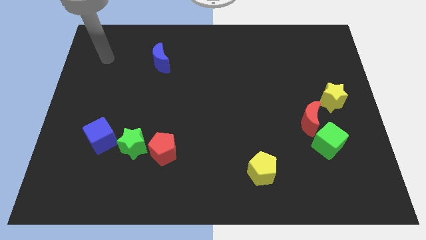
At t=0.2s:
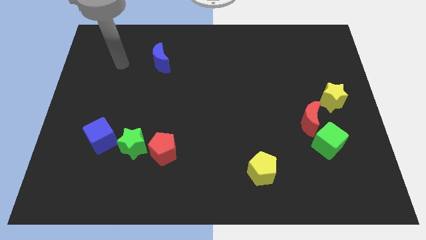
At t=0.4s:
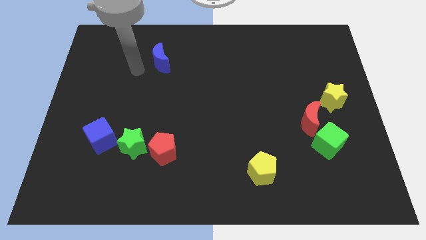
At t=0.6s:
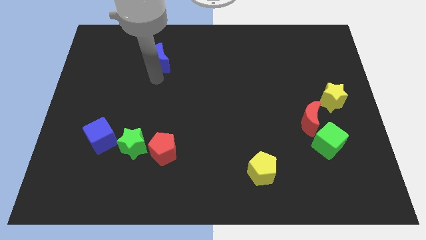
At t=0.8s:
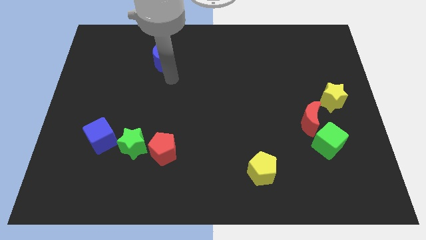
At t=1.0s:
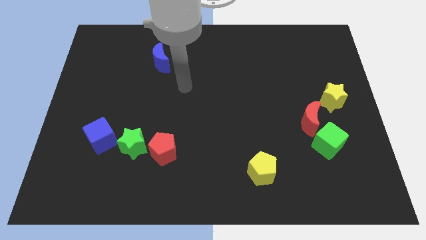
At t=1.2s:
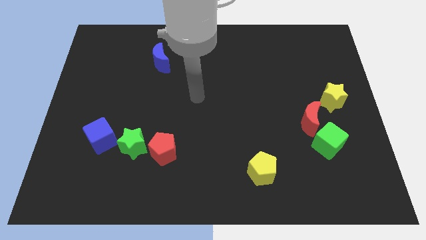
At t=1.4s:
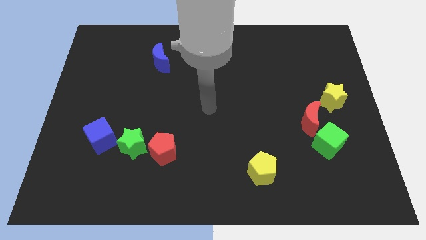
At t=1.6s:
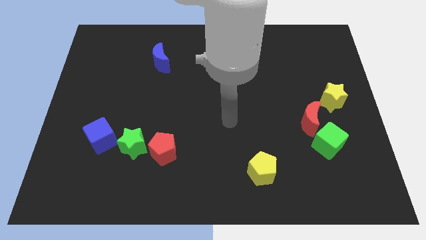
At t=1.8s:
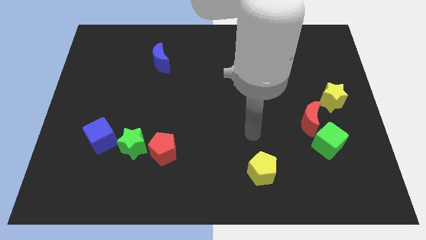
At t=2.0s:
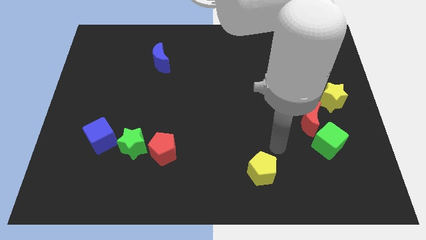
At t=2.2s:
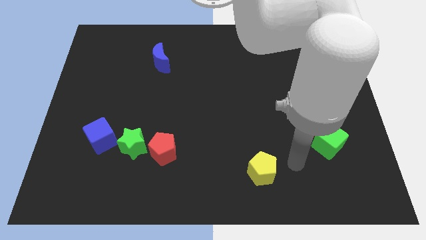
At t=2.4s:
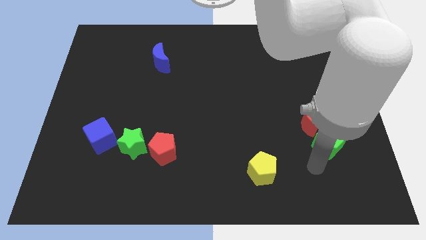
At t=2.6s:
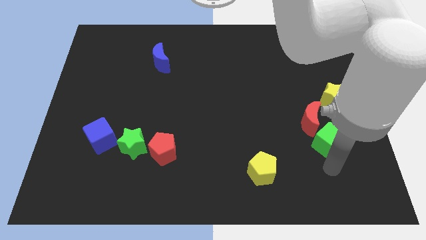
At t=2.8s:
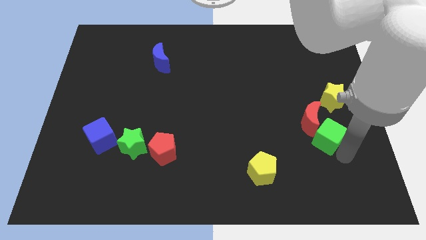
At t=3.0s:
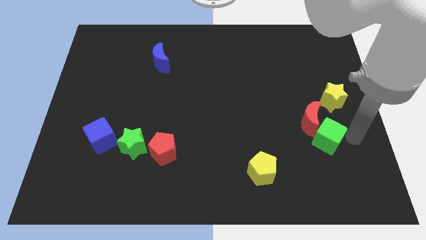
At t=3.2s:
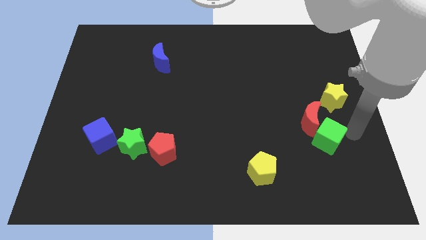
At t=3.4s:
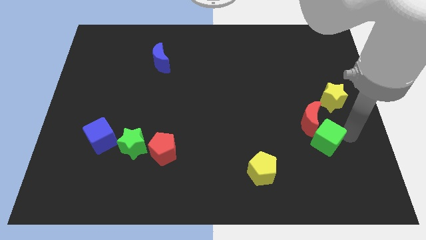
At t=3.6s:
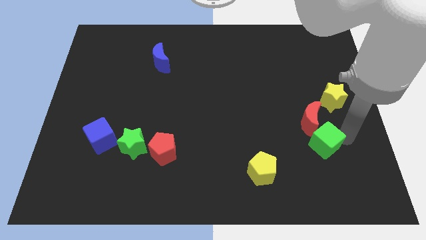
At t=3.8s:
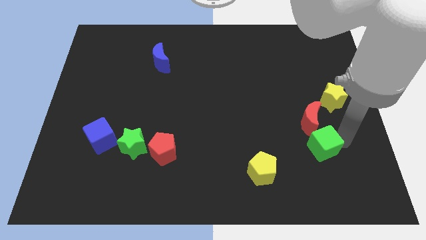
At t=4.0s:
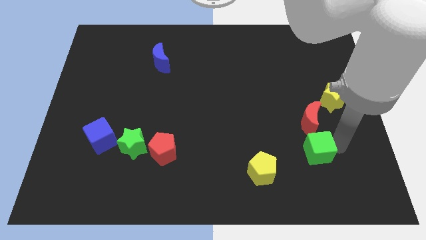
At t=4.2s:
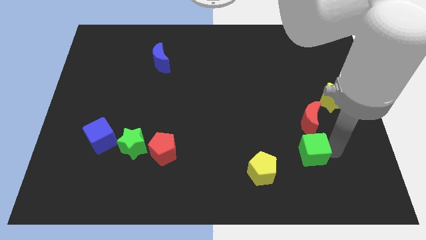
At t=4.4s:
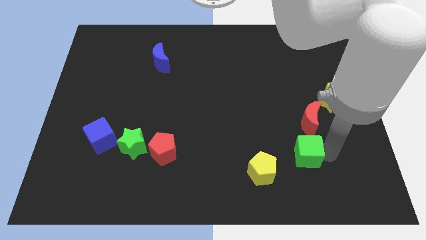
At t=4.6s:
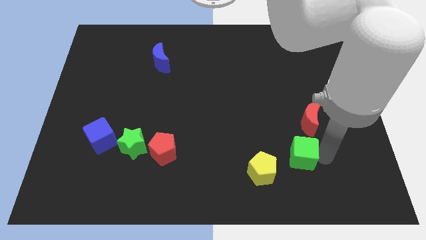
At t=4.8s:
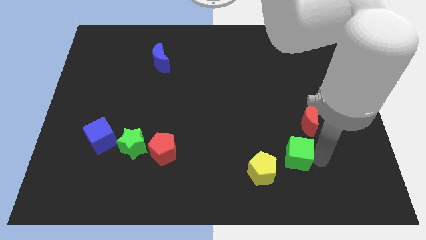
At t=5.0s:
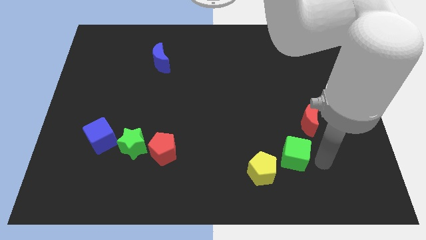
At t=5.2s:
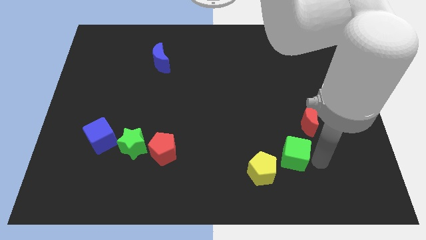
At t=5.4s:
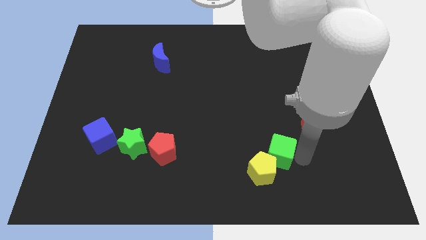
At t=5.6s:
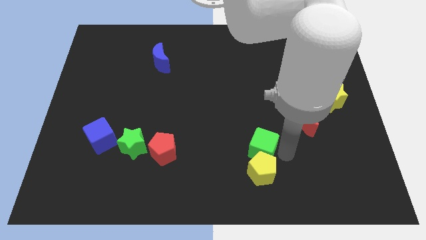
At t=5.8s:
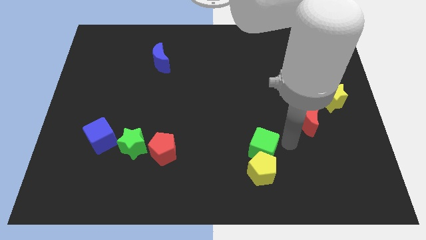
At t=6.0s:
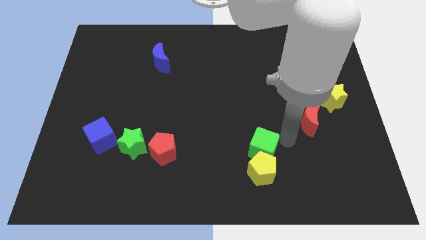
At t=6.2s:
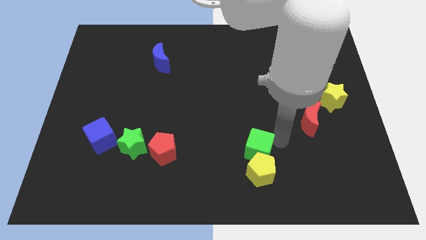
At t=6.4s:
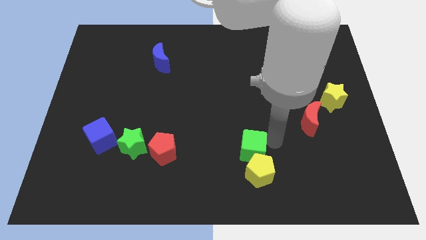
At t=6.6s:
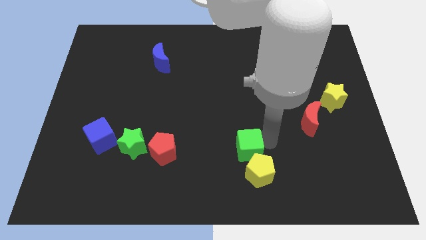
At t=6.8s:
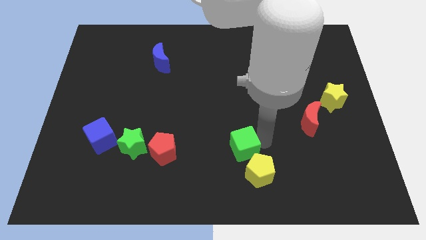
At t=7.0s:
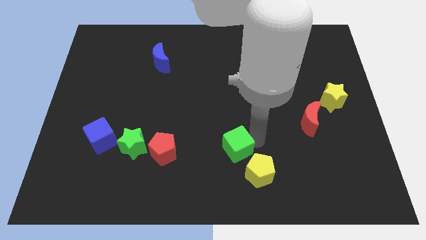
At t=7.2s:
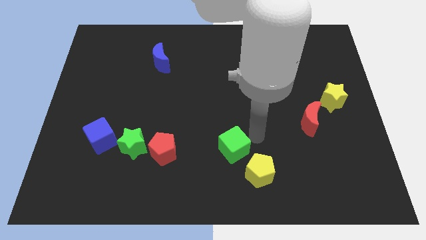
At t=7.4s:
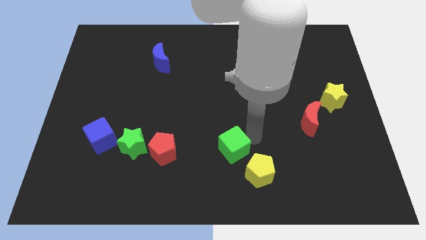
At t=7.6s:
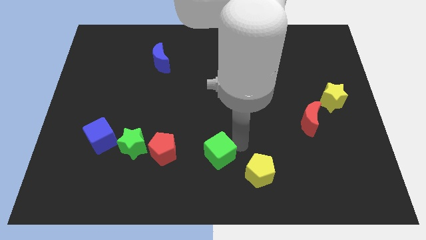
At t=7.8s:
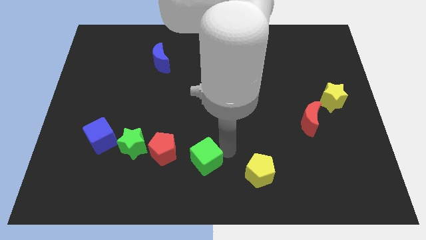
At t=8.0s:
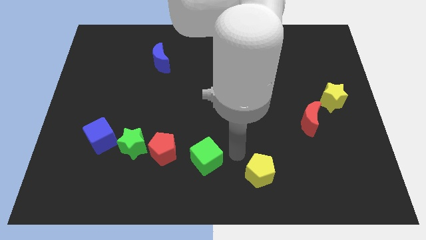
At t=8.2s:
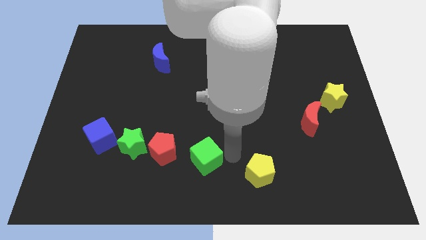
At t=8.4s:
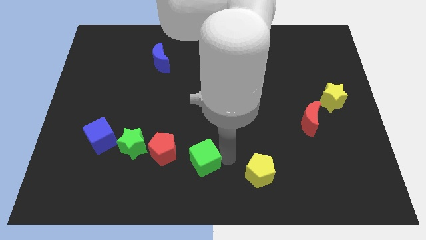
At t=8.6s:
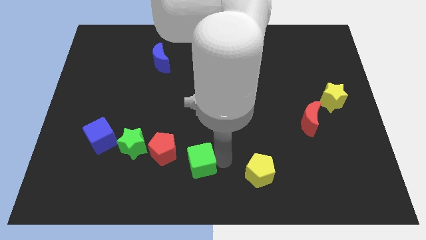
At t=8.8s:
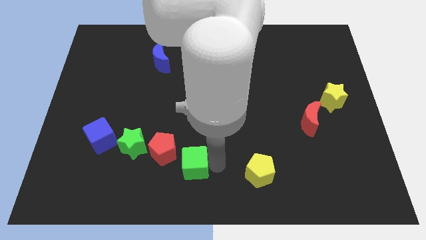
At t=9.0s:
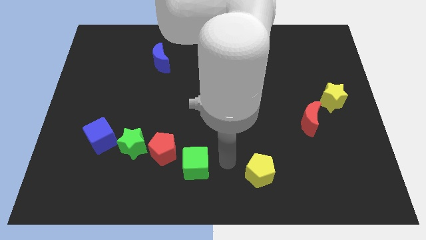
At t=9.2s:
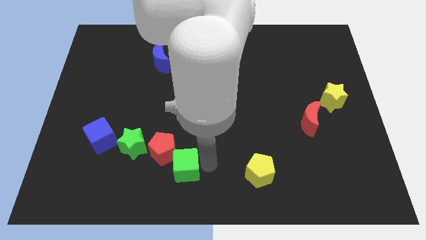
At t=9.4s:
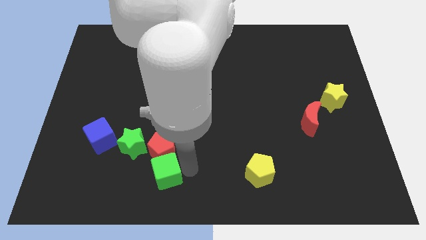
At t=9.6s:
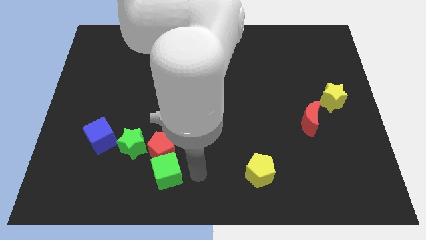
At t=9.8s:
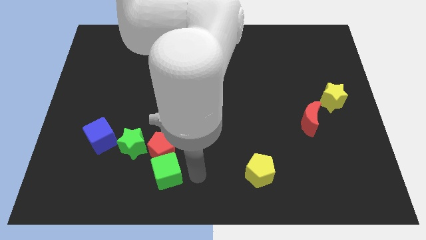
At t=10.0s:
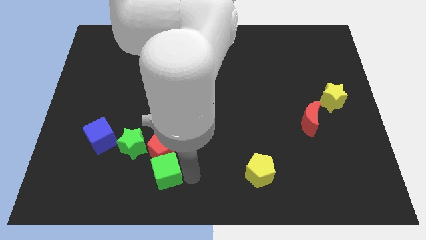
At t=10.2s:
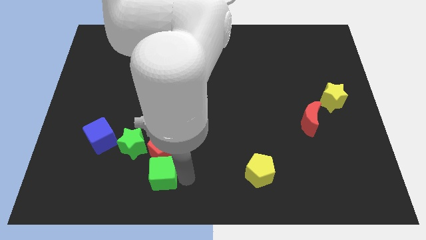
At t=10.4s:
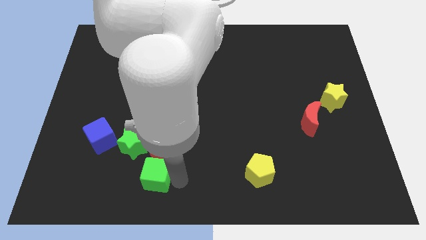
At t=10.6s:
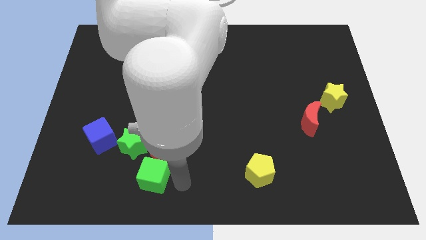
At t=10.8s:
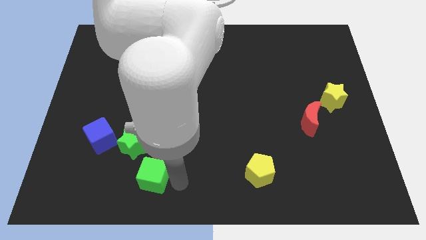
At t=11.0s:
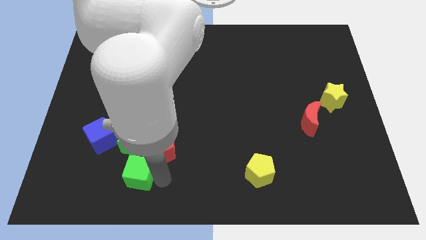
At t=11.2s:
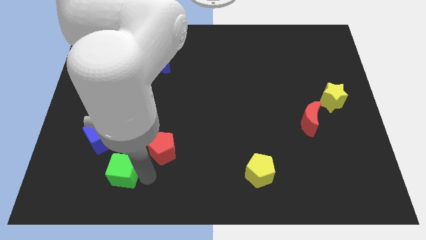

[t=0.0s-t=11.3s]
slide the green cube diagonally down and to the left of the green star

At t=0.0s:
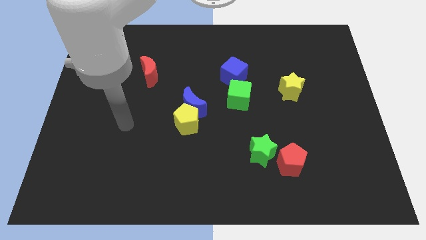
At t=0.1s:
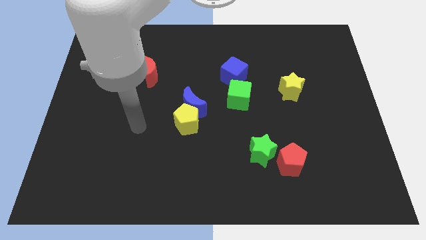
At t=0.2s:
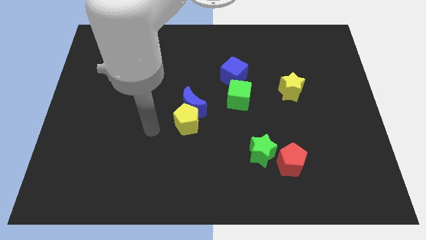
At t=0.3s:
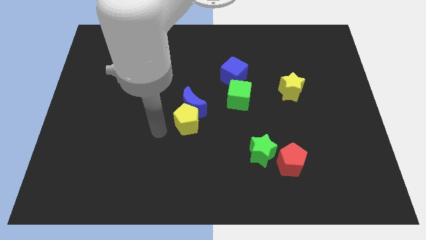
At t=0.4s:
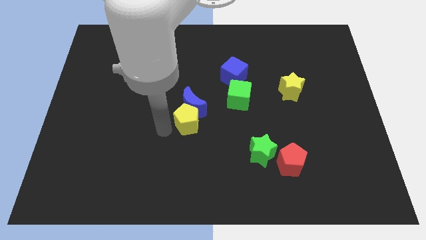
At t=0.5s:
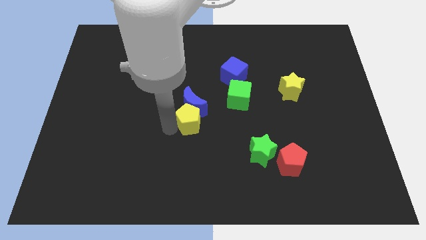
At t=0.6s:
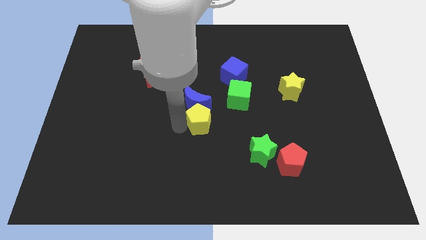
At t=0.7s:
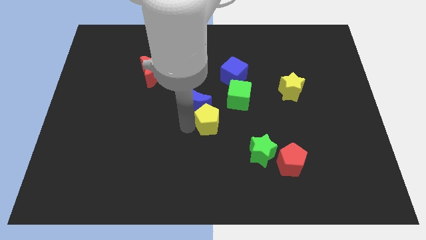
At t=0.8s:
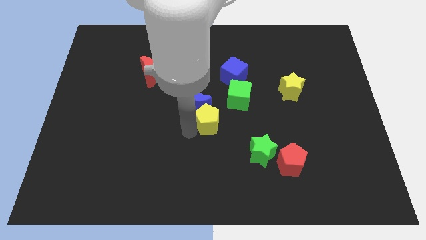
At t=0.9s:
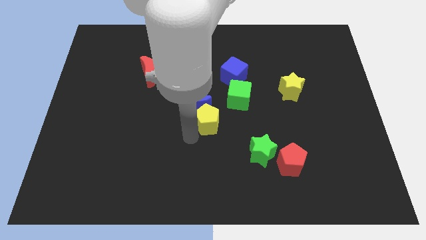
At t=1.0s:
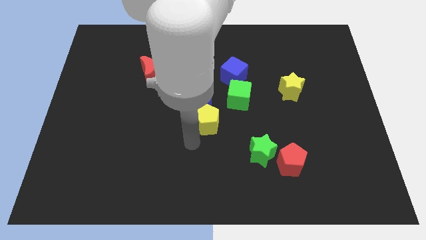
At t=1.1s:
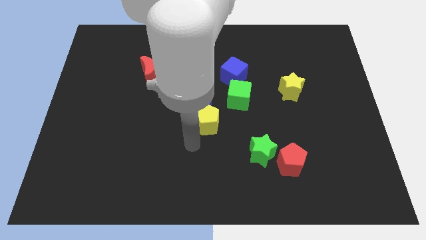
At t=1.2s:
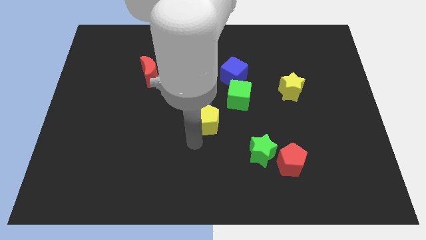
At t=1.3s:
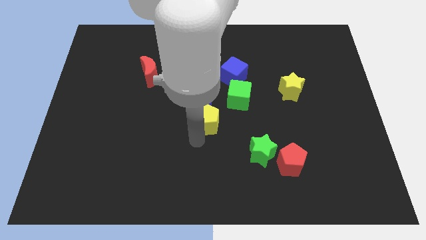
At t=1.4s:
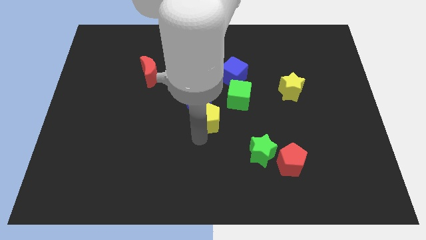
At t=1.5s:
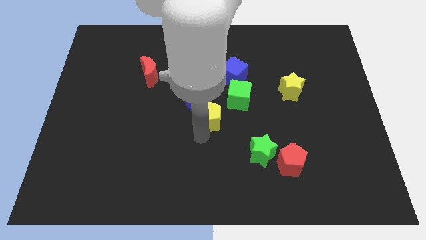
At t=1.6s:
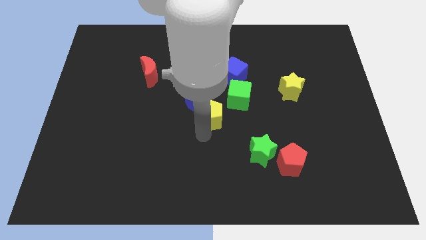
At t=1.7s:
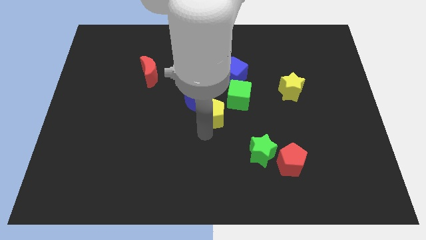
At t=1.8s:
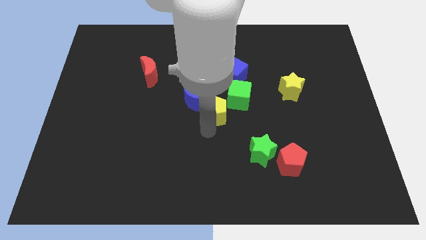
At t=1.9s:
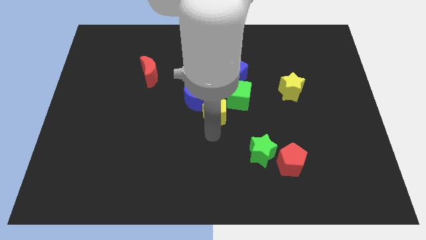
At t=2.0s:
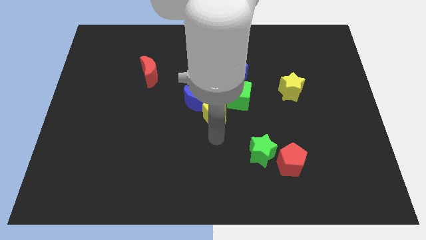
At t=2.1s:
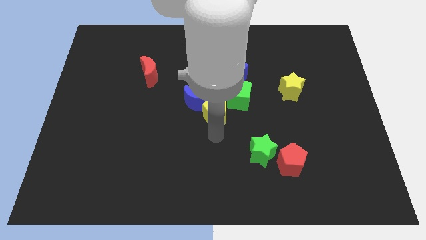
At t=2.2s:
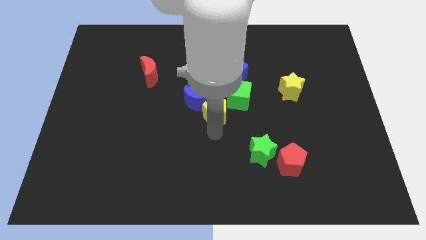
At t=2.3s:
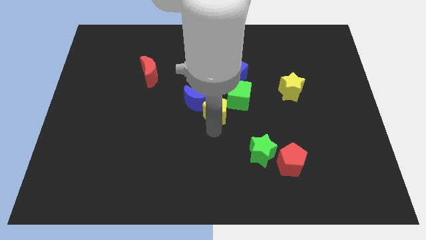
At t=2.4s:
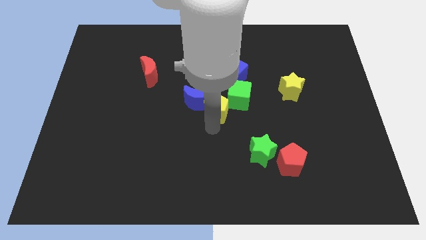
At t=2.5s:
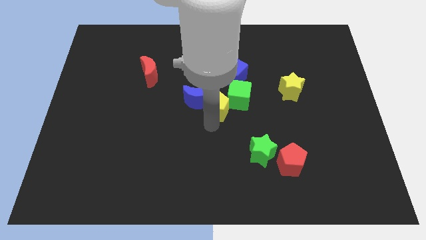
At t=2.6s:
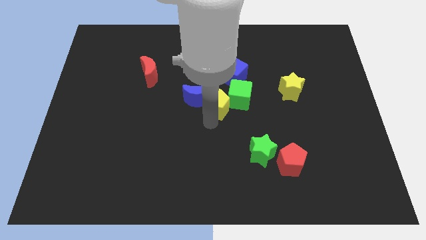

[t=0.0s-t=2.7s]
put the yellow pentagon to the bottom left of the blue cube
